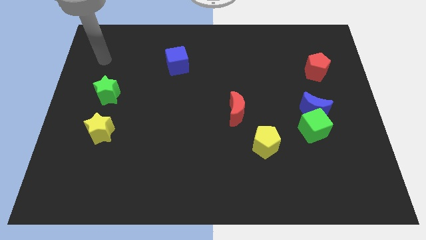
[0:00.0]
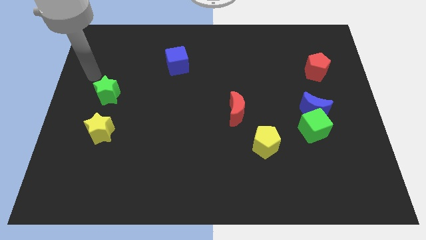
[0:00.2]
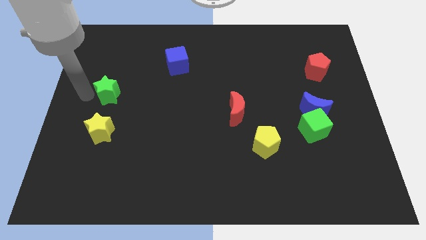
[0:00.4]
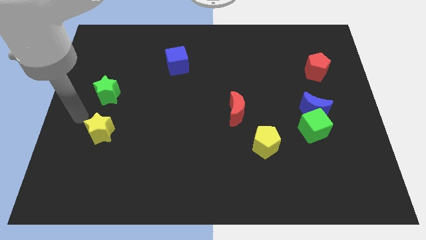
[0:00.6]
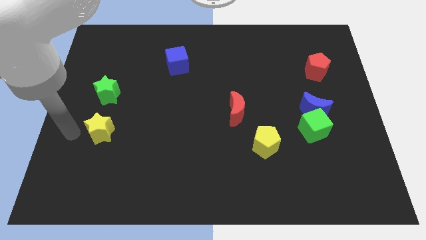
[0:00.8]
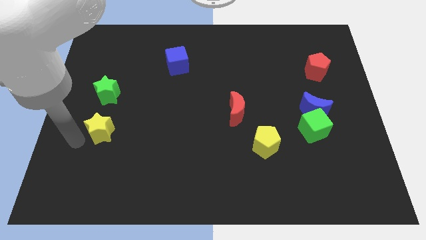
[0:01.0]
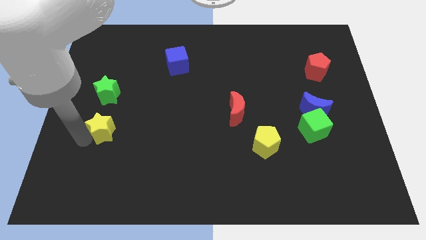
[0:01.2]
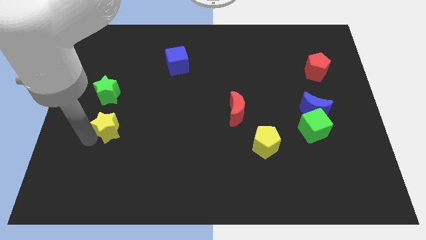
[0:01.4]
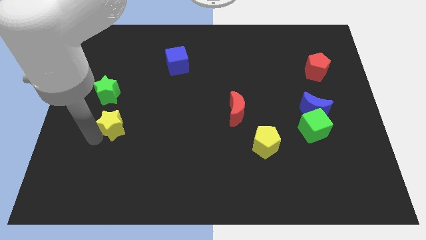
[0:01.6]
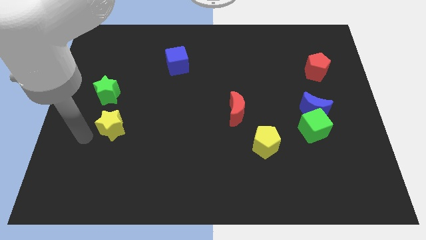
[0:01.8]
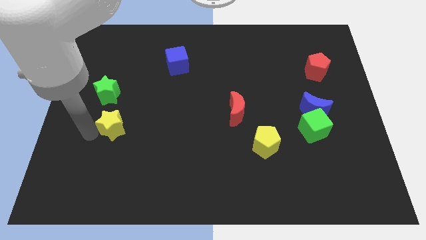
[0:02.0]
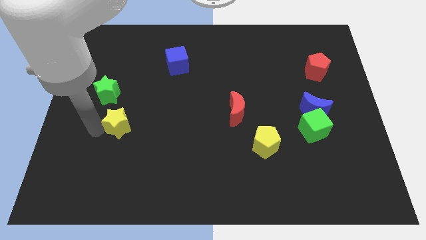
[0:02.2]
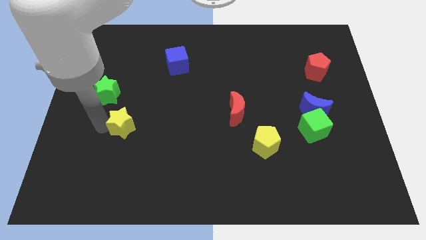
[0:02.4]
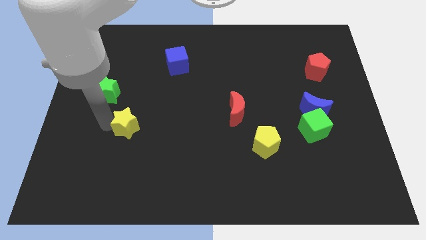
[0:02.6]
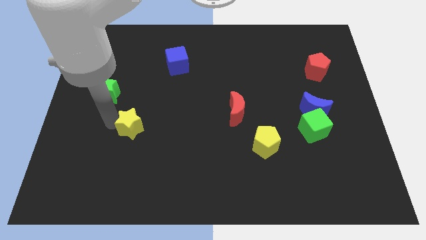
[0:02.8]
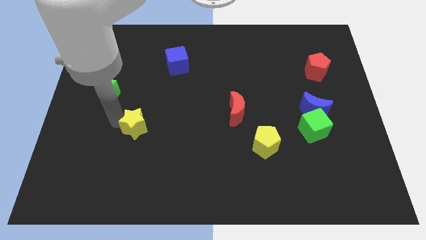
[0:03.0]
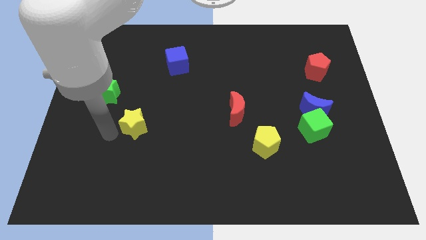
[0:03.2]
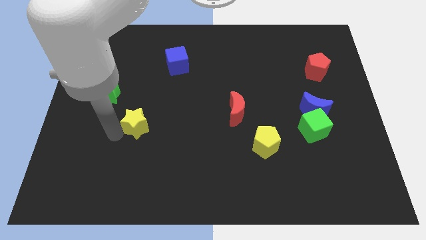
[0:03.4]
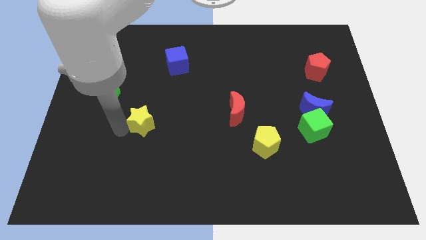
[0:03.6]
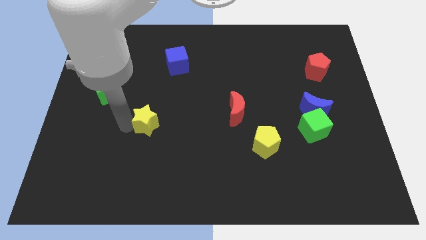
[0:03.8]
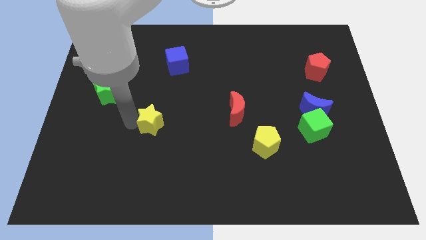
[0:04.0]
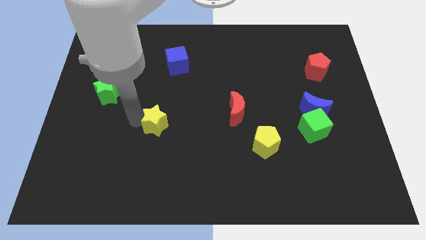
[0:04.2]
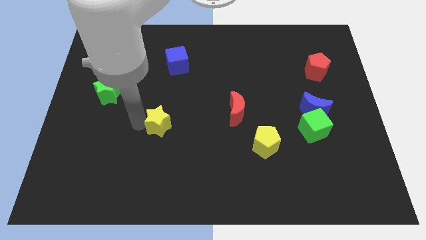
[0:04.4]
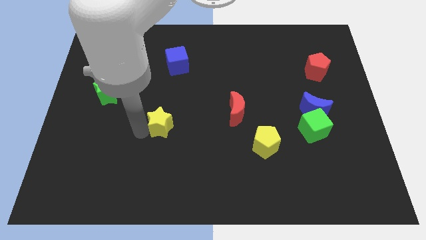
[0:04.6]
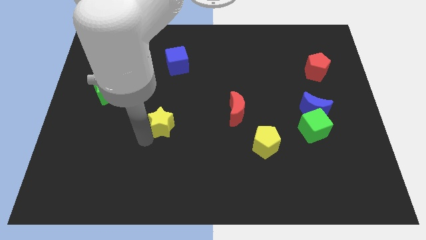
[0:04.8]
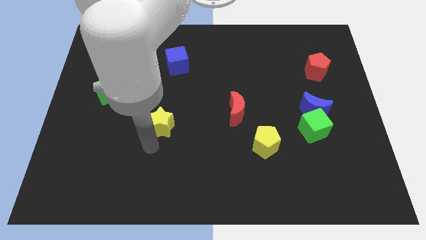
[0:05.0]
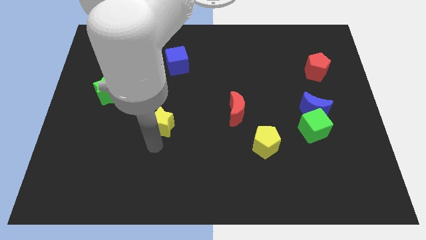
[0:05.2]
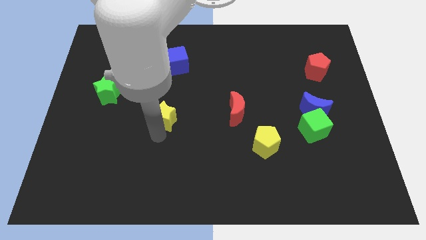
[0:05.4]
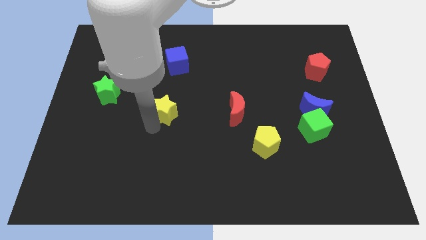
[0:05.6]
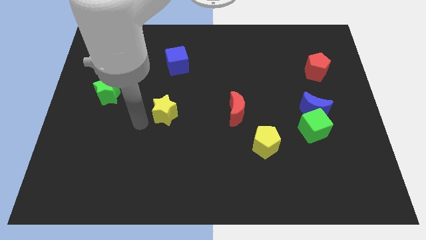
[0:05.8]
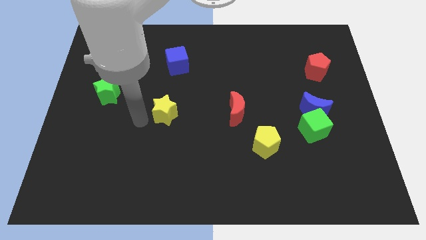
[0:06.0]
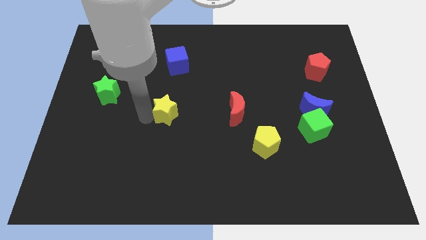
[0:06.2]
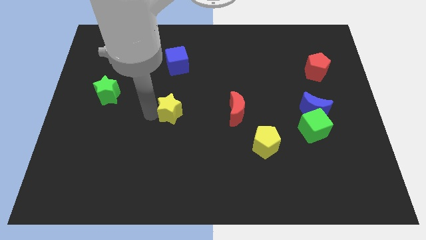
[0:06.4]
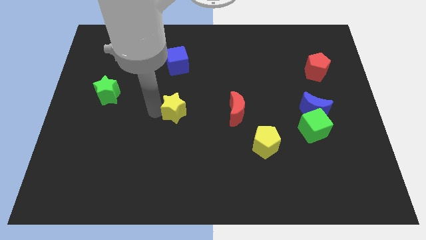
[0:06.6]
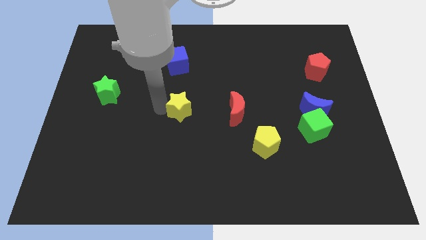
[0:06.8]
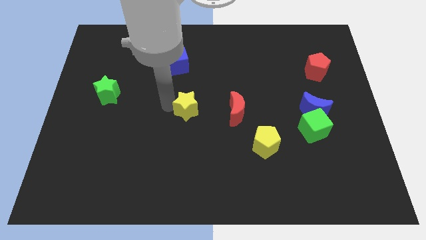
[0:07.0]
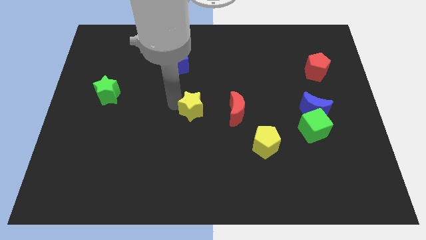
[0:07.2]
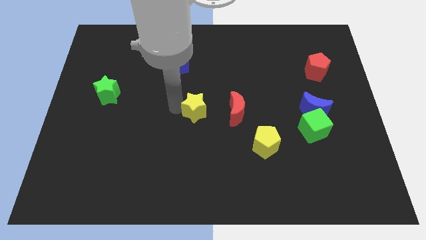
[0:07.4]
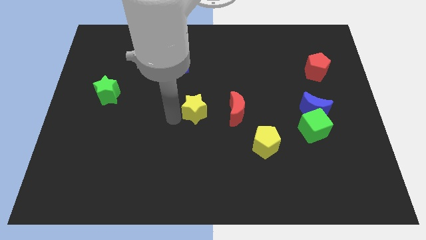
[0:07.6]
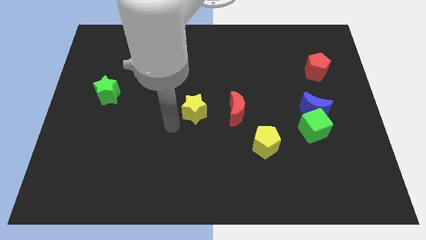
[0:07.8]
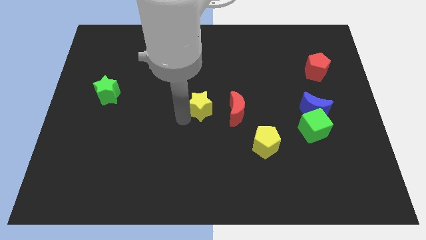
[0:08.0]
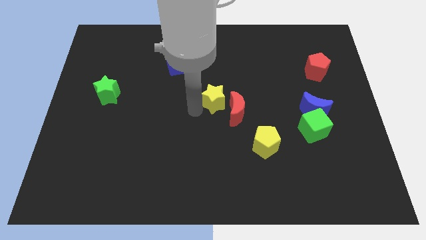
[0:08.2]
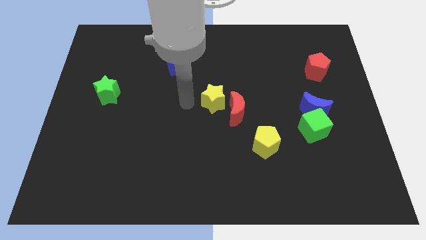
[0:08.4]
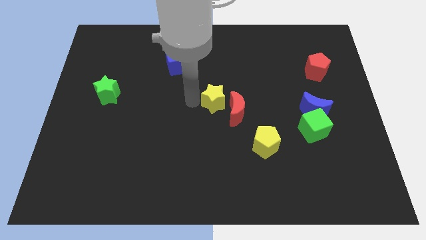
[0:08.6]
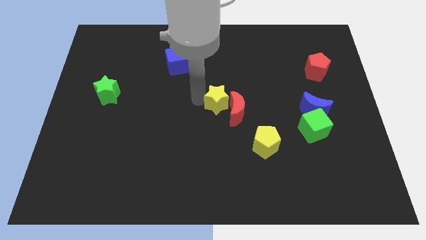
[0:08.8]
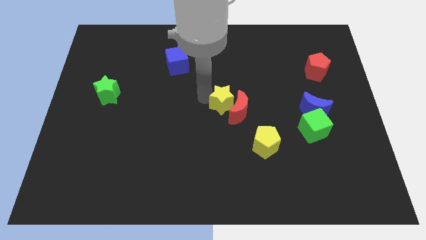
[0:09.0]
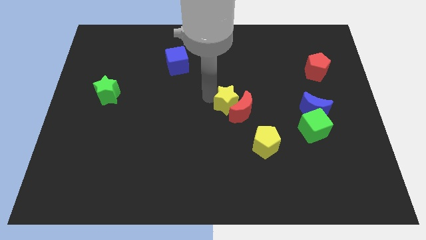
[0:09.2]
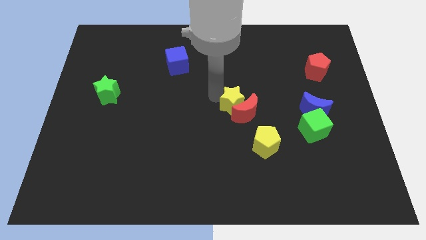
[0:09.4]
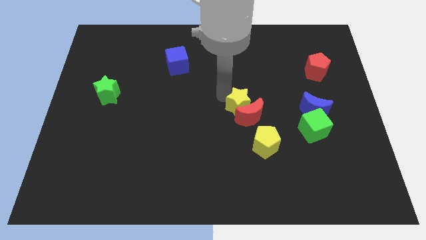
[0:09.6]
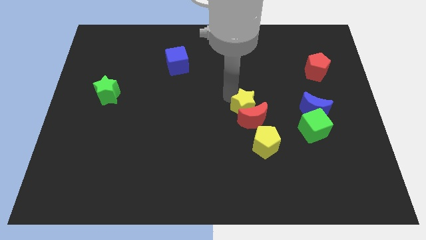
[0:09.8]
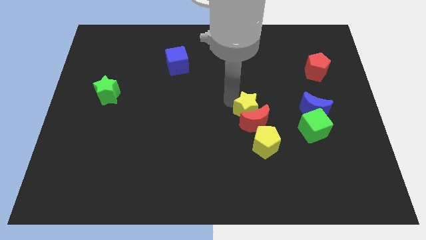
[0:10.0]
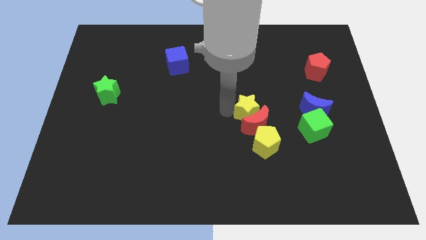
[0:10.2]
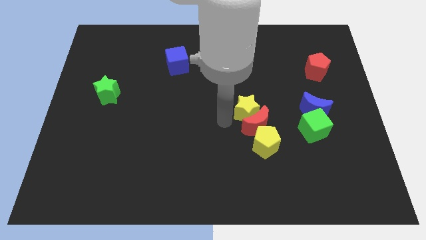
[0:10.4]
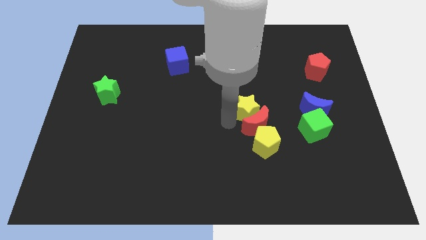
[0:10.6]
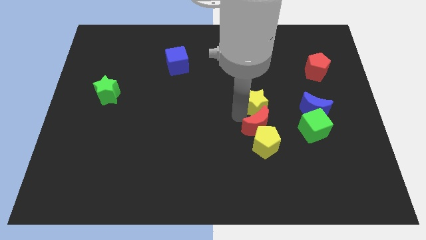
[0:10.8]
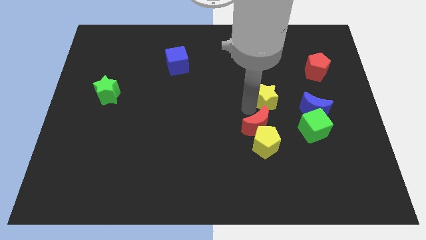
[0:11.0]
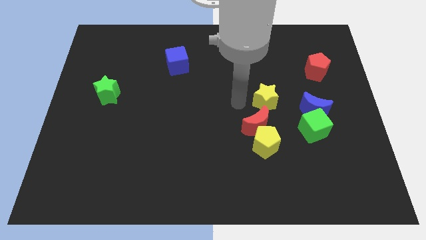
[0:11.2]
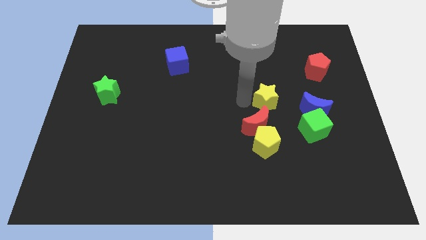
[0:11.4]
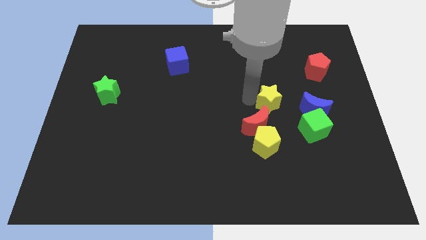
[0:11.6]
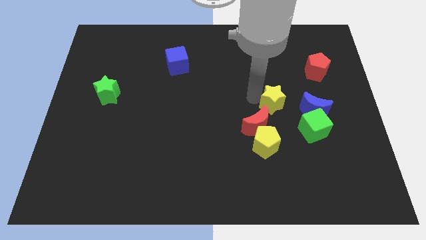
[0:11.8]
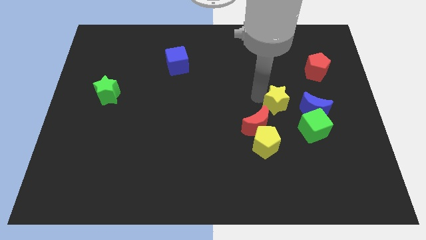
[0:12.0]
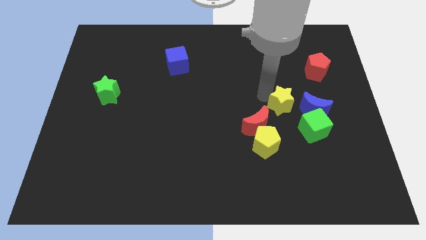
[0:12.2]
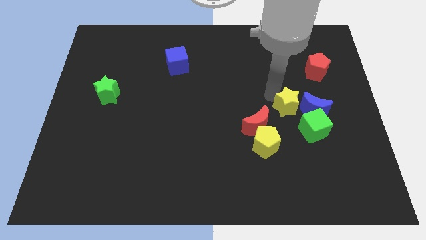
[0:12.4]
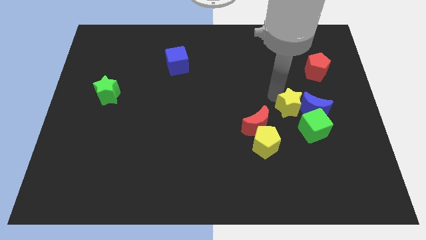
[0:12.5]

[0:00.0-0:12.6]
push the yellow star close to the blue moon
